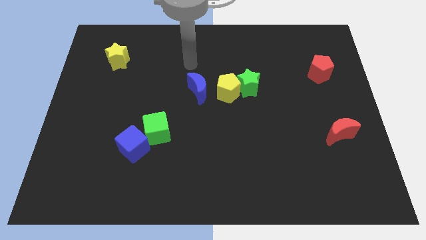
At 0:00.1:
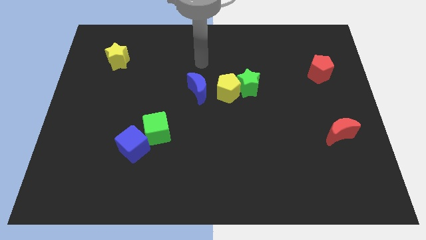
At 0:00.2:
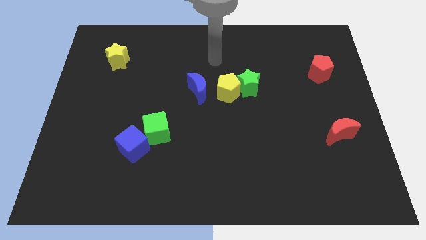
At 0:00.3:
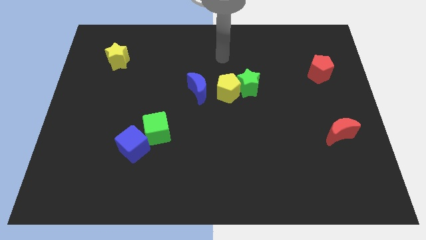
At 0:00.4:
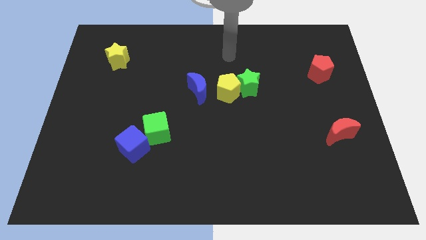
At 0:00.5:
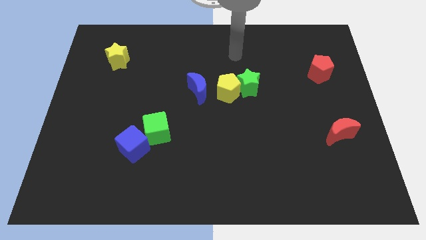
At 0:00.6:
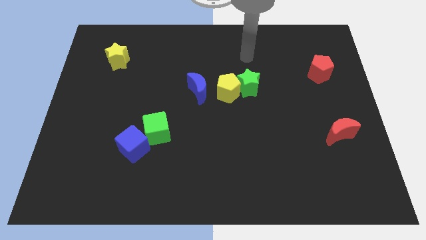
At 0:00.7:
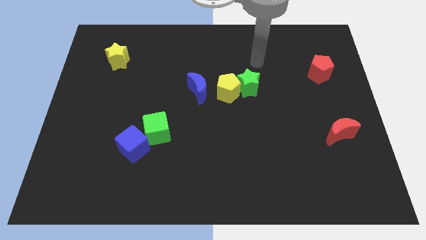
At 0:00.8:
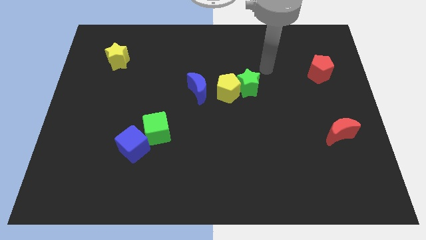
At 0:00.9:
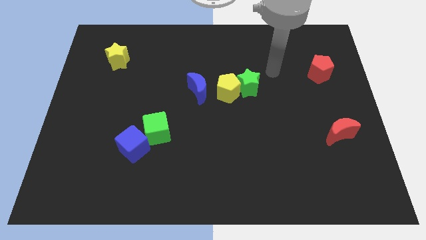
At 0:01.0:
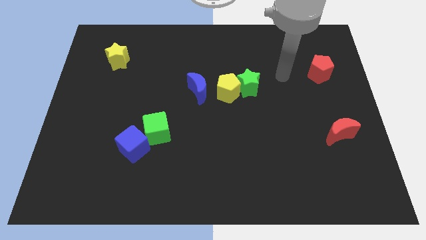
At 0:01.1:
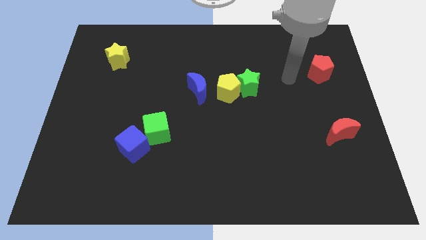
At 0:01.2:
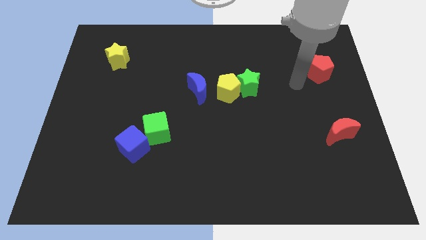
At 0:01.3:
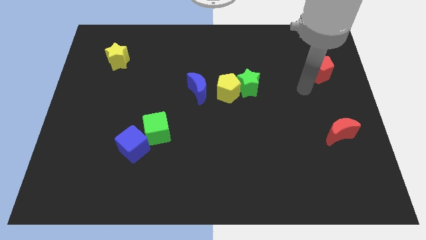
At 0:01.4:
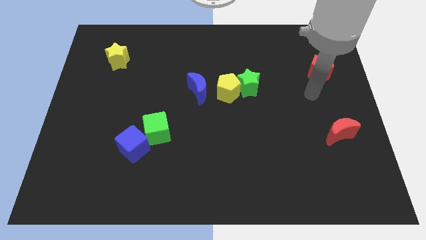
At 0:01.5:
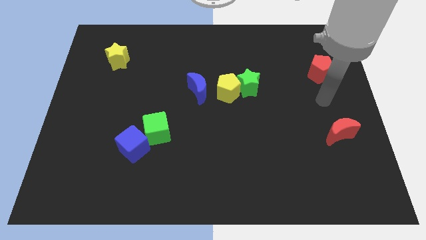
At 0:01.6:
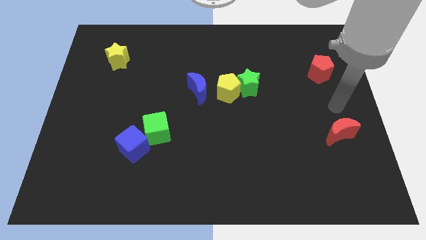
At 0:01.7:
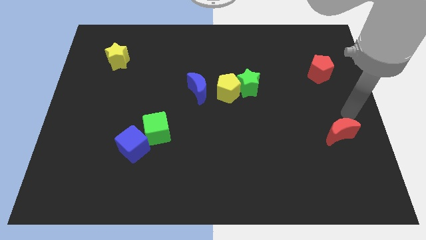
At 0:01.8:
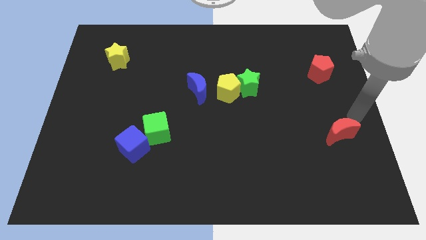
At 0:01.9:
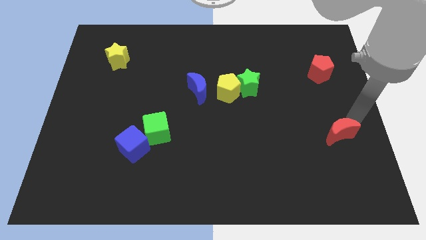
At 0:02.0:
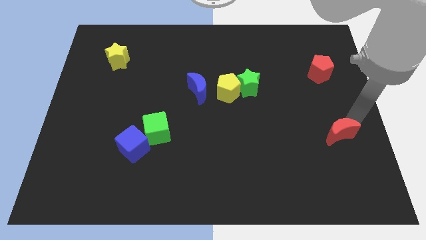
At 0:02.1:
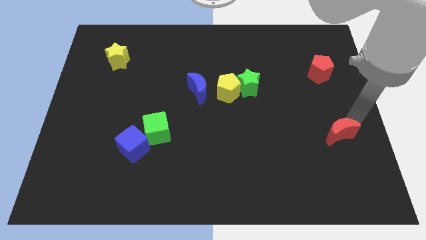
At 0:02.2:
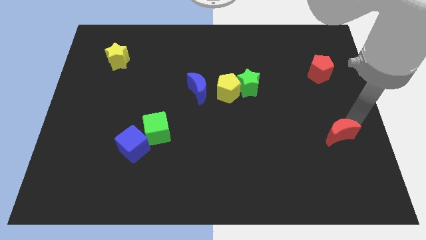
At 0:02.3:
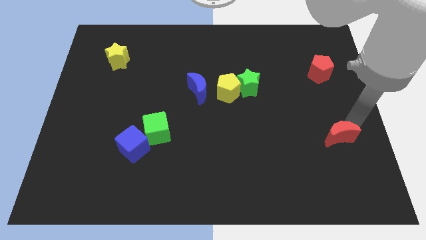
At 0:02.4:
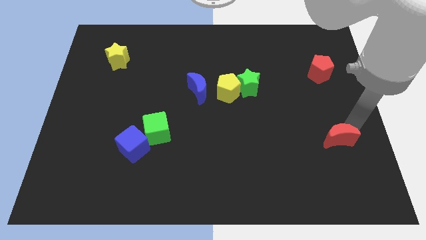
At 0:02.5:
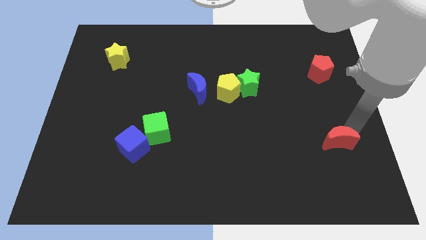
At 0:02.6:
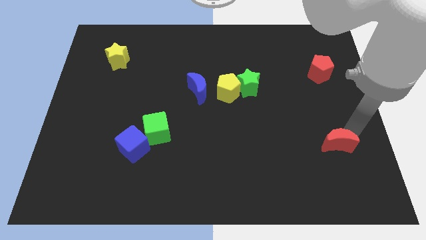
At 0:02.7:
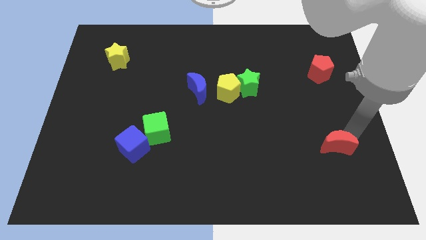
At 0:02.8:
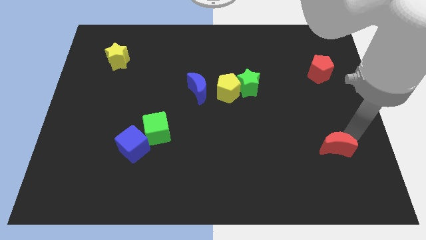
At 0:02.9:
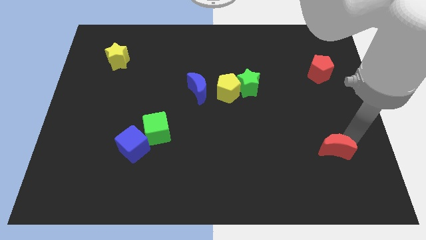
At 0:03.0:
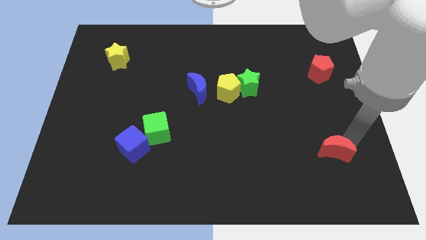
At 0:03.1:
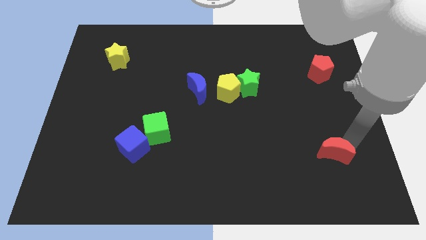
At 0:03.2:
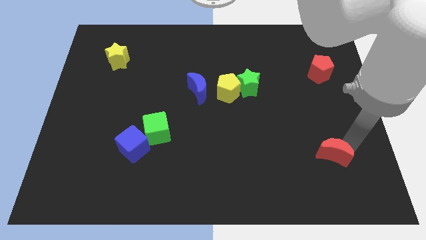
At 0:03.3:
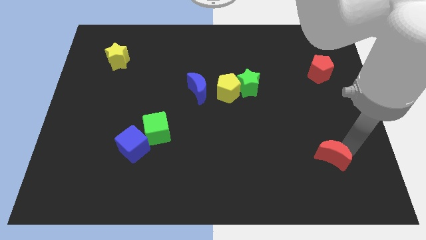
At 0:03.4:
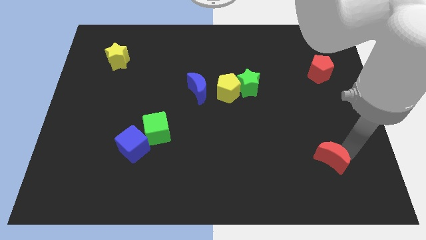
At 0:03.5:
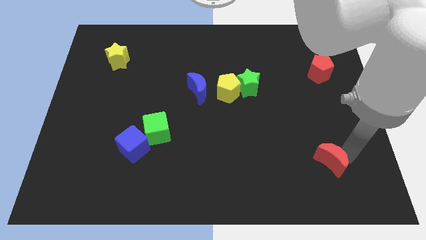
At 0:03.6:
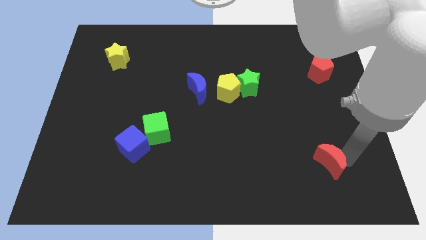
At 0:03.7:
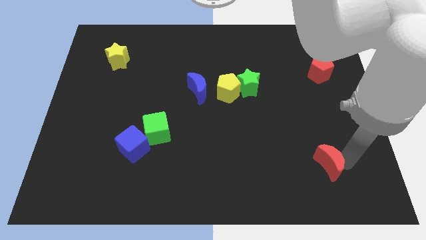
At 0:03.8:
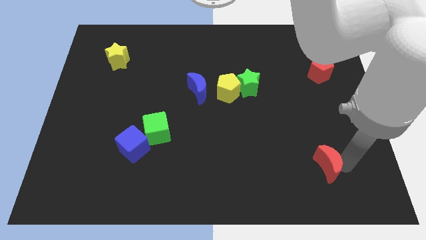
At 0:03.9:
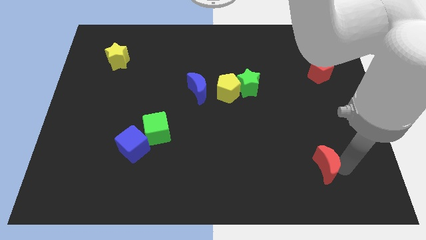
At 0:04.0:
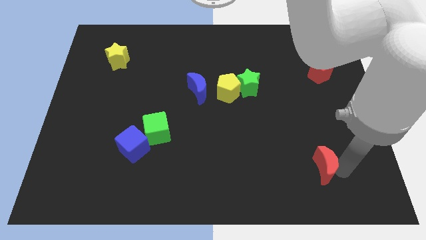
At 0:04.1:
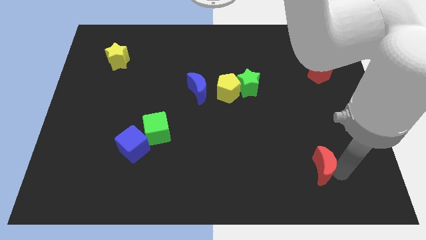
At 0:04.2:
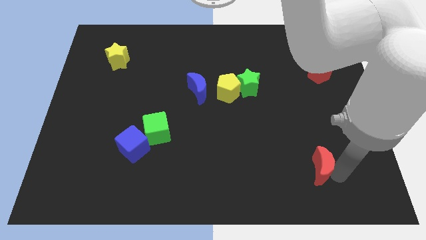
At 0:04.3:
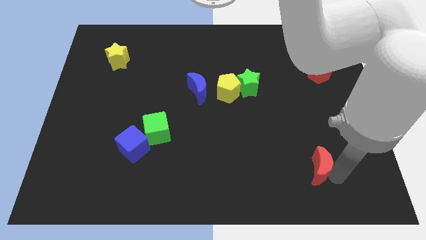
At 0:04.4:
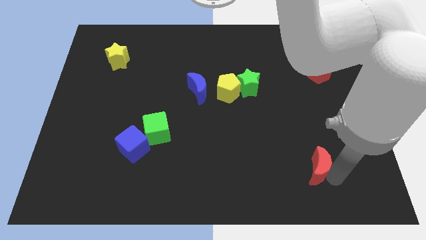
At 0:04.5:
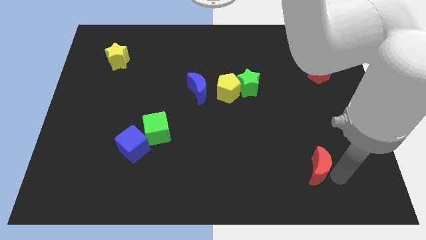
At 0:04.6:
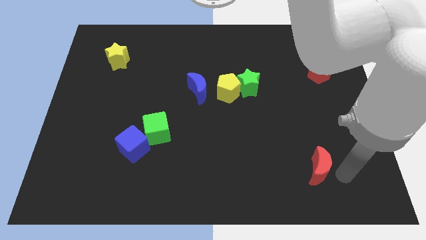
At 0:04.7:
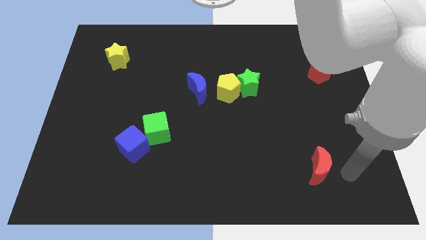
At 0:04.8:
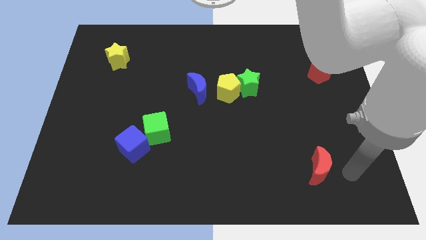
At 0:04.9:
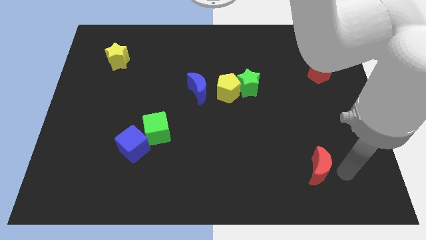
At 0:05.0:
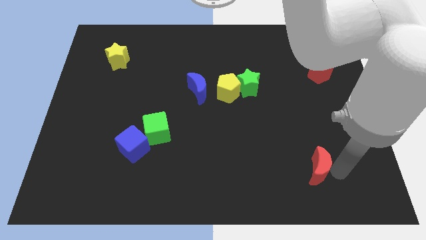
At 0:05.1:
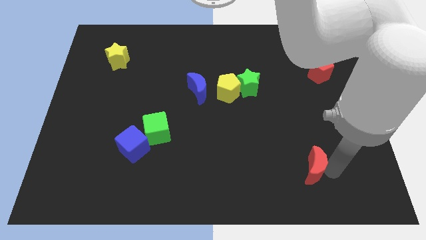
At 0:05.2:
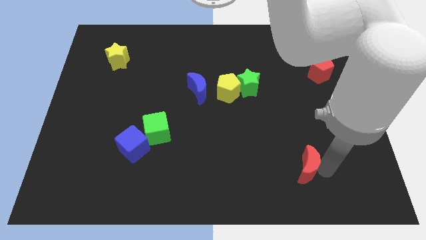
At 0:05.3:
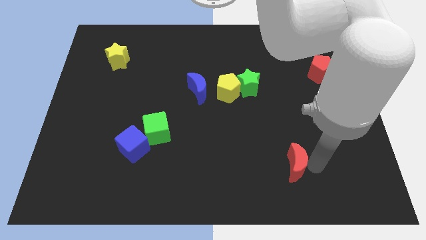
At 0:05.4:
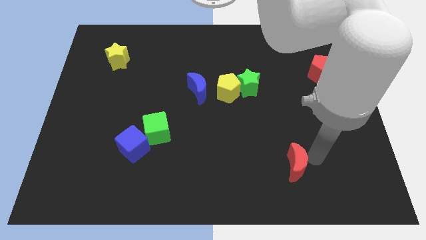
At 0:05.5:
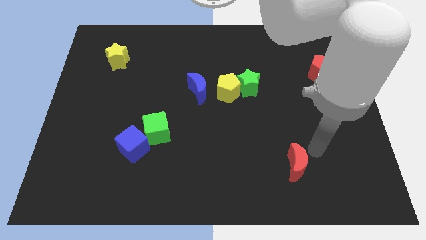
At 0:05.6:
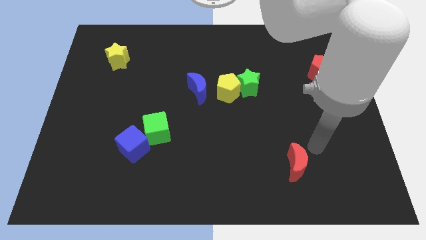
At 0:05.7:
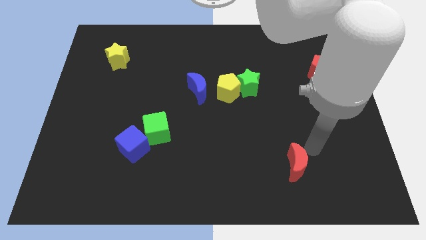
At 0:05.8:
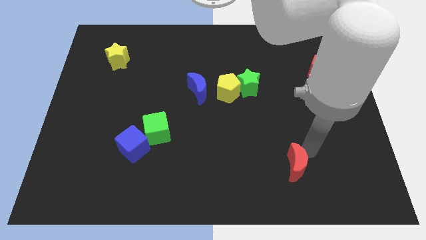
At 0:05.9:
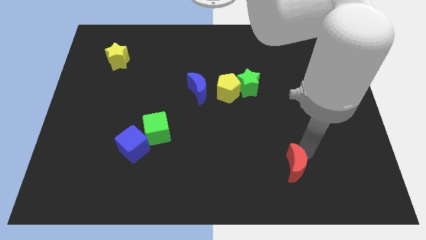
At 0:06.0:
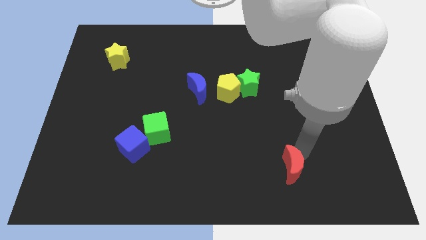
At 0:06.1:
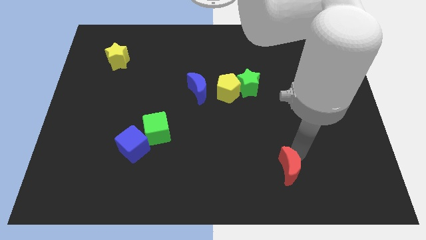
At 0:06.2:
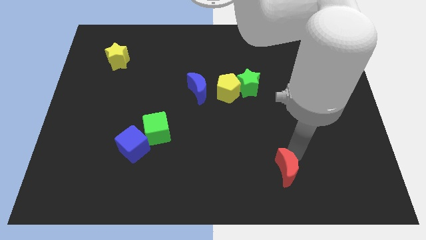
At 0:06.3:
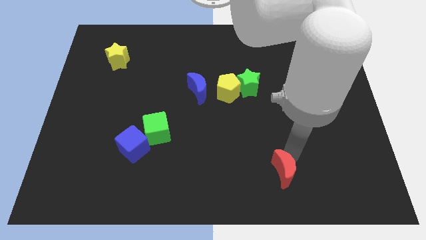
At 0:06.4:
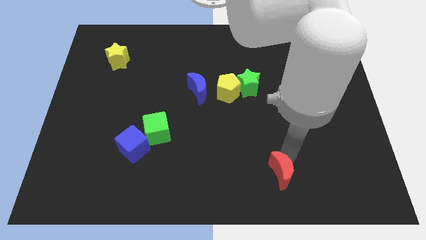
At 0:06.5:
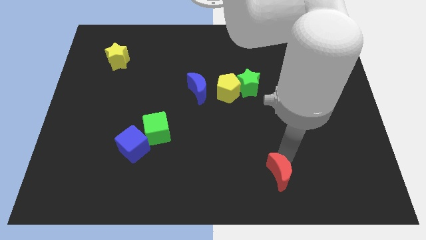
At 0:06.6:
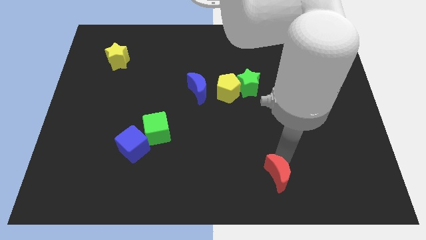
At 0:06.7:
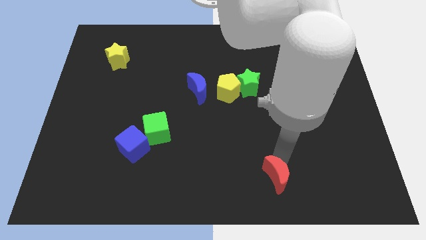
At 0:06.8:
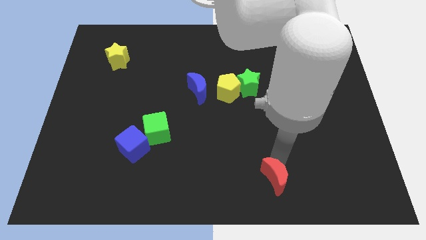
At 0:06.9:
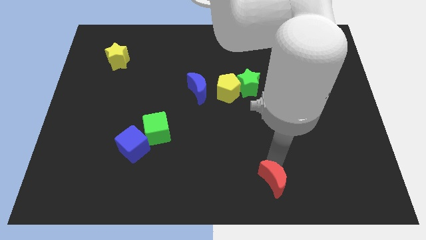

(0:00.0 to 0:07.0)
slide the red moon to the bottom
